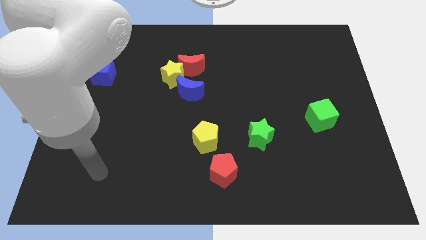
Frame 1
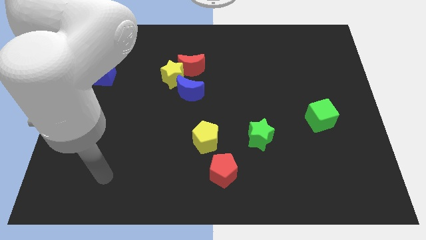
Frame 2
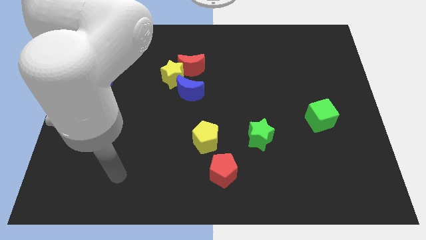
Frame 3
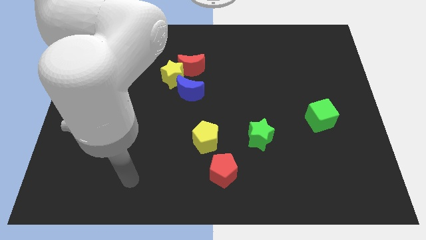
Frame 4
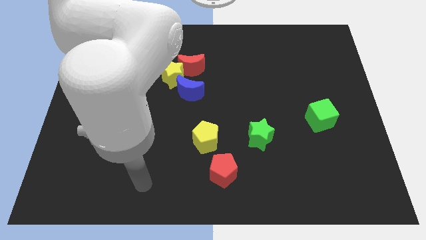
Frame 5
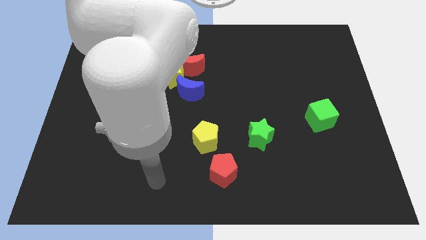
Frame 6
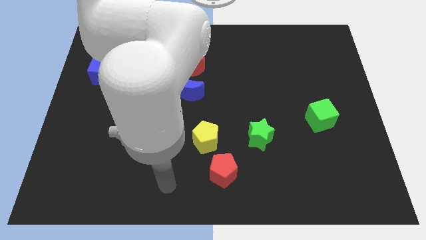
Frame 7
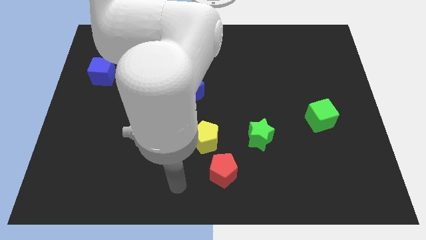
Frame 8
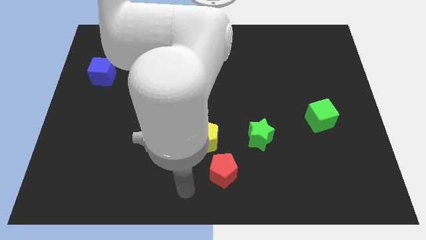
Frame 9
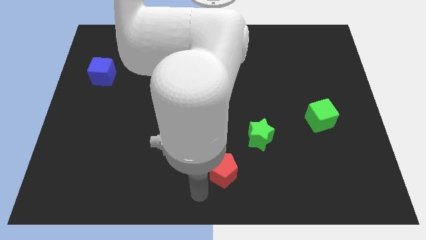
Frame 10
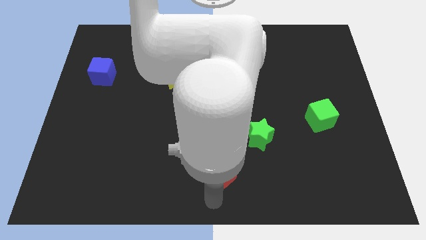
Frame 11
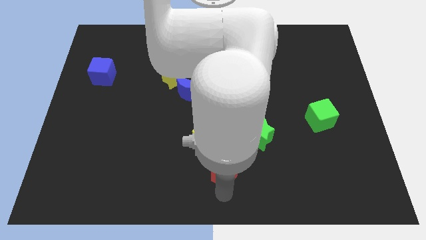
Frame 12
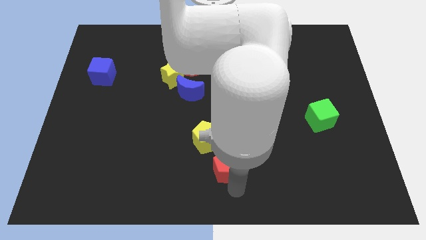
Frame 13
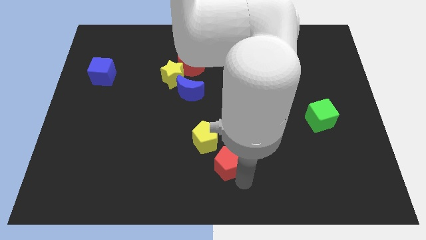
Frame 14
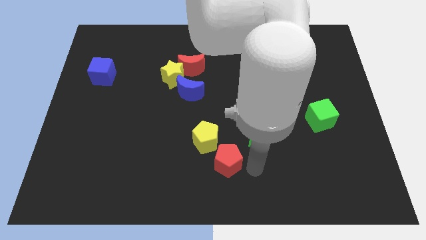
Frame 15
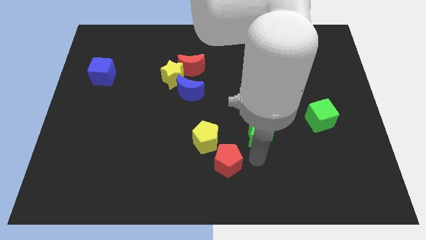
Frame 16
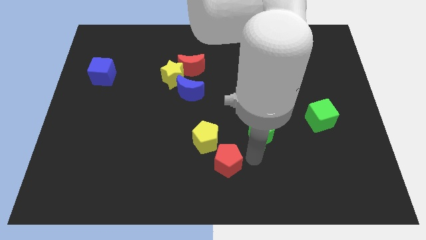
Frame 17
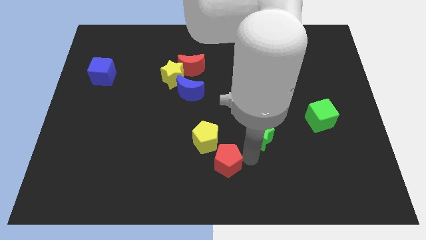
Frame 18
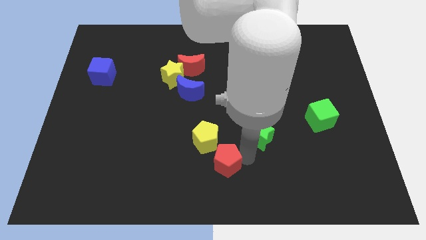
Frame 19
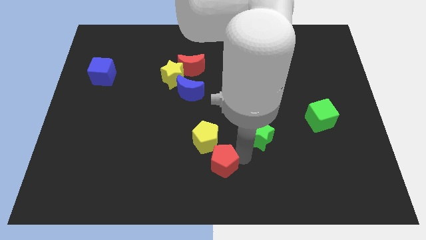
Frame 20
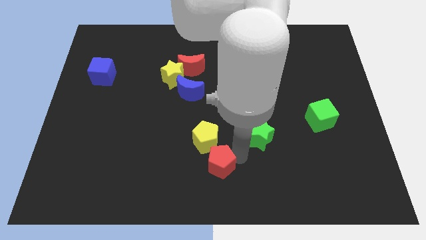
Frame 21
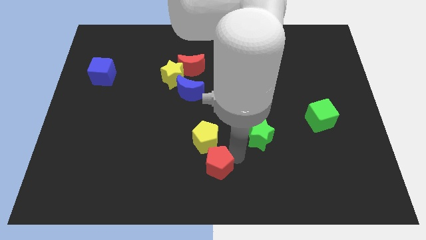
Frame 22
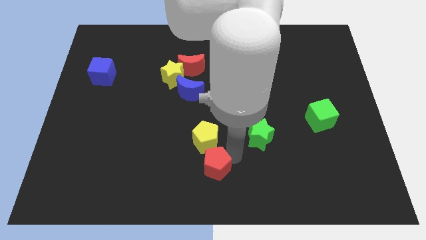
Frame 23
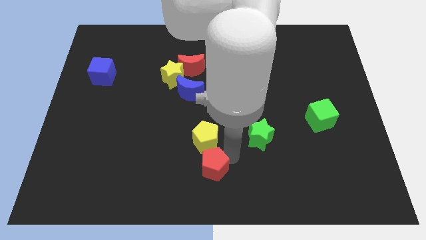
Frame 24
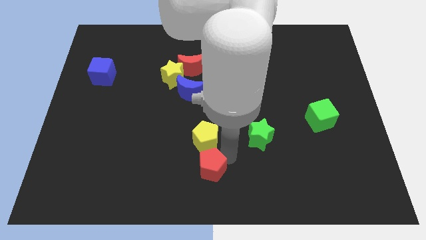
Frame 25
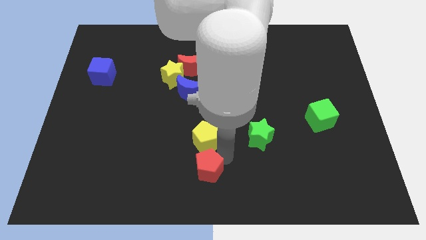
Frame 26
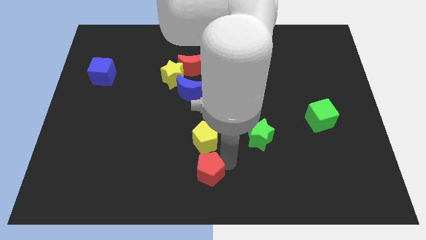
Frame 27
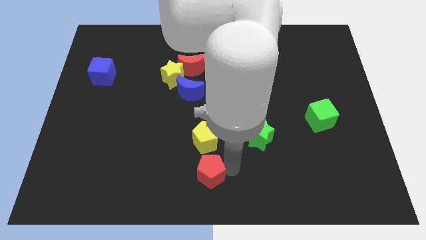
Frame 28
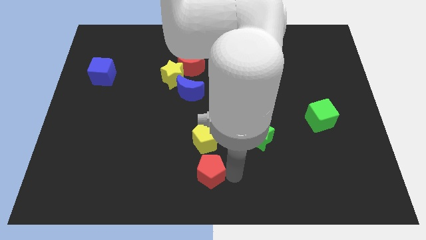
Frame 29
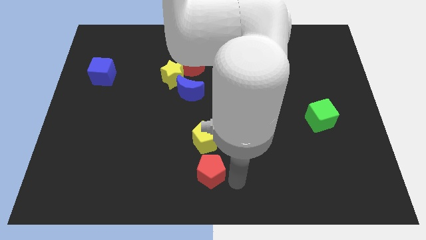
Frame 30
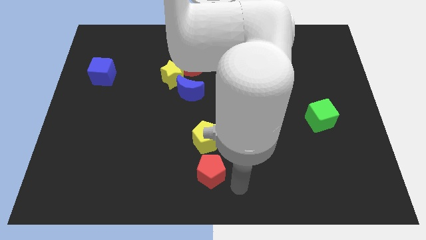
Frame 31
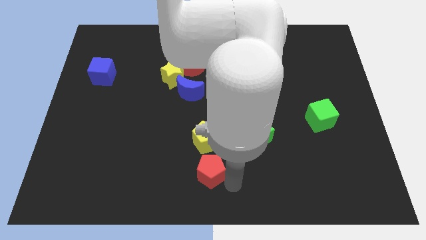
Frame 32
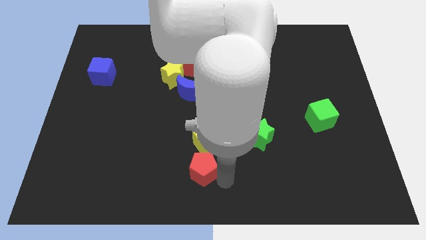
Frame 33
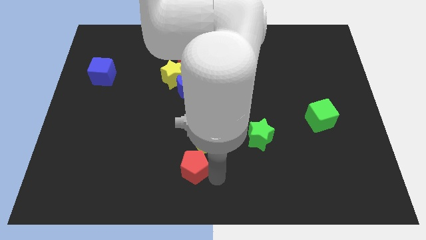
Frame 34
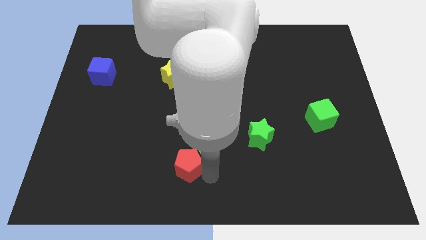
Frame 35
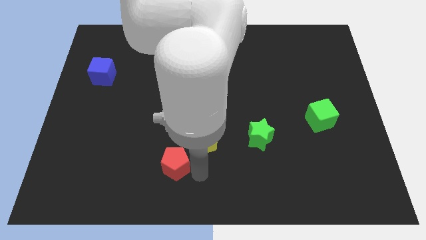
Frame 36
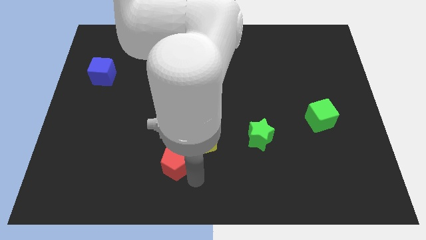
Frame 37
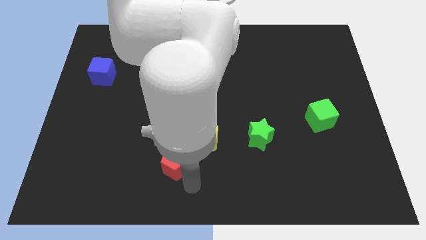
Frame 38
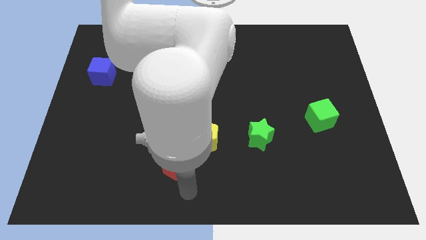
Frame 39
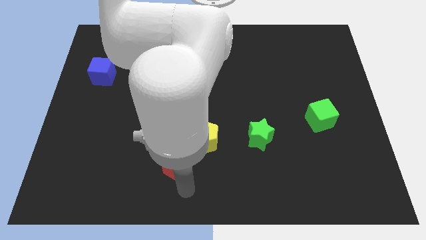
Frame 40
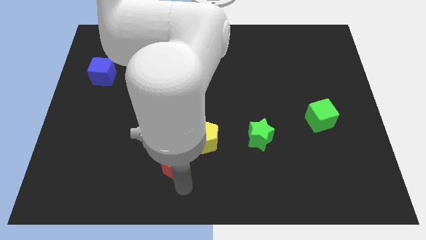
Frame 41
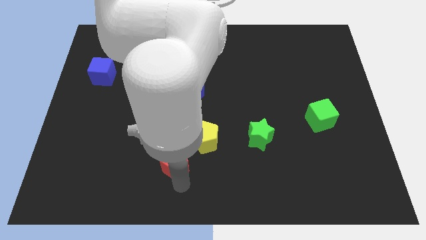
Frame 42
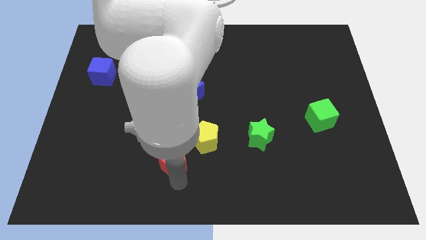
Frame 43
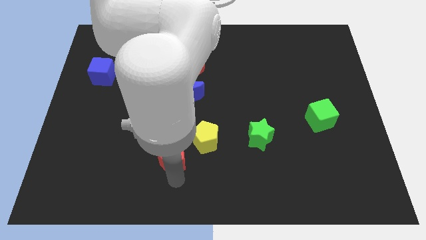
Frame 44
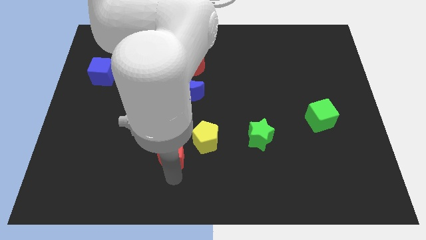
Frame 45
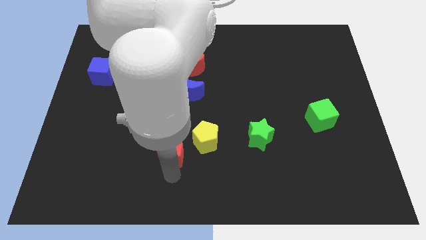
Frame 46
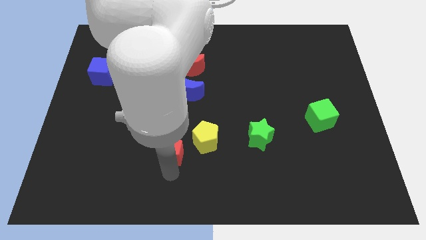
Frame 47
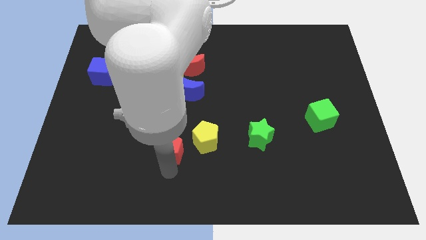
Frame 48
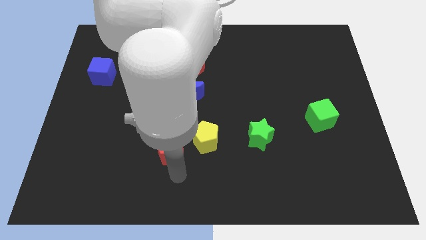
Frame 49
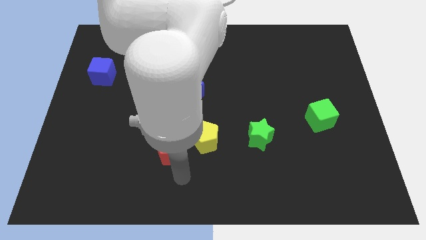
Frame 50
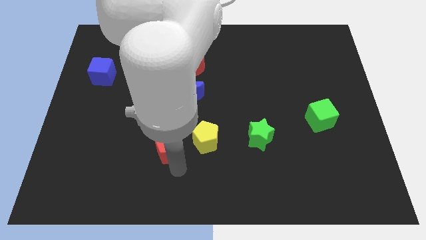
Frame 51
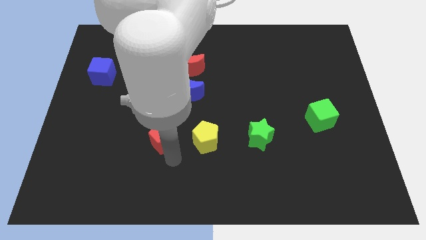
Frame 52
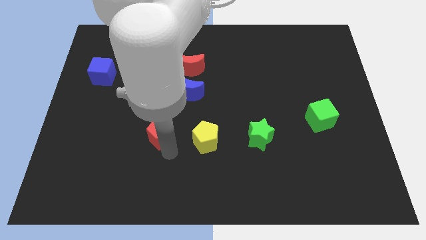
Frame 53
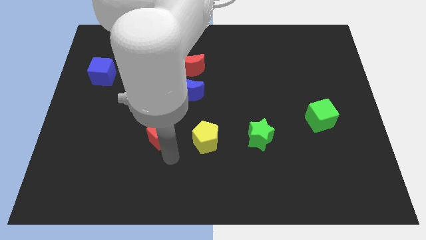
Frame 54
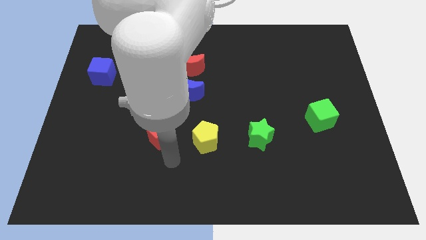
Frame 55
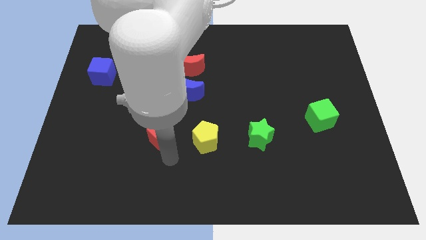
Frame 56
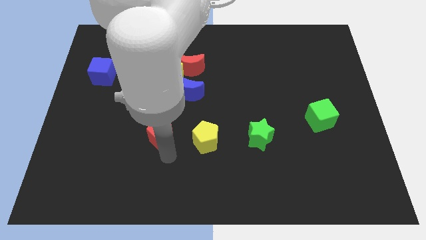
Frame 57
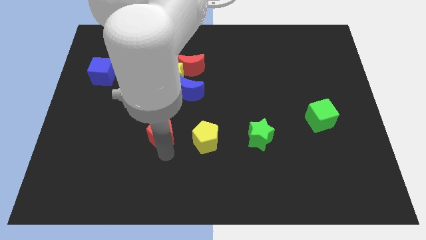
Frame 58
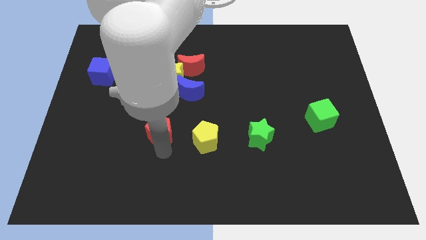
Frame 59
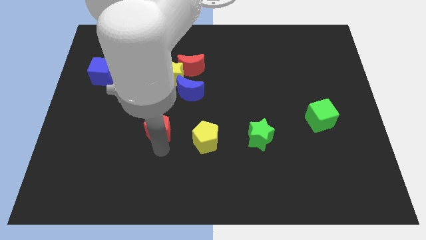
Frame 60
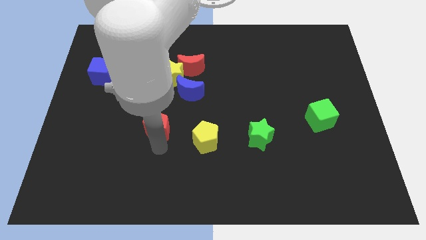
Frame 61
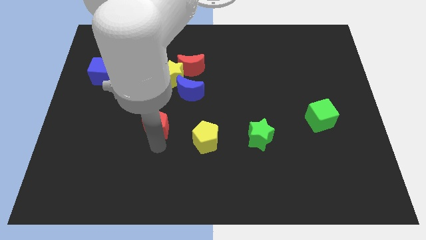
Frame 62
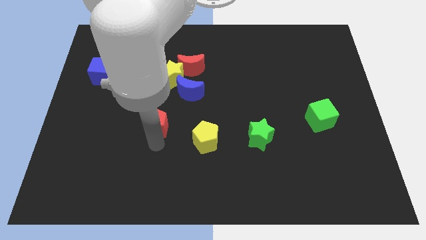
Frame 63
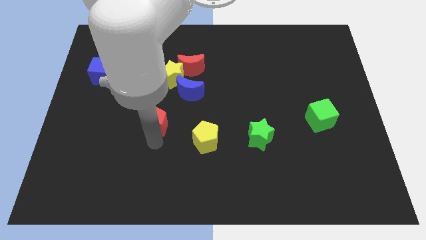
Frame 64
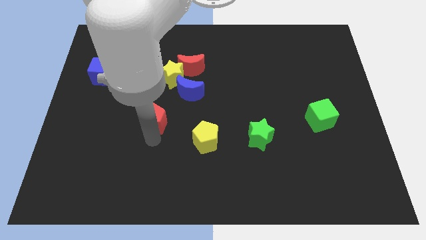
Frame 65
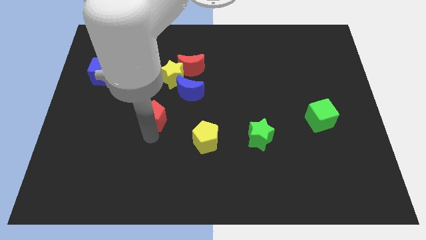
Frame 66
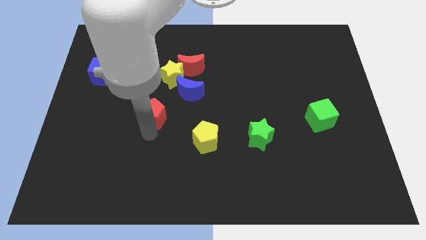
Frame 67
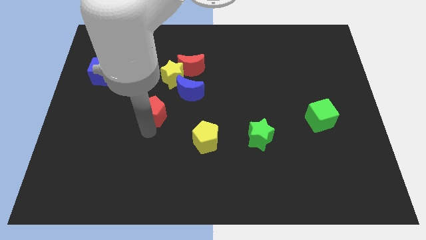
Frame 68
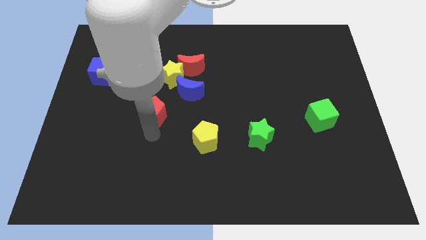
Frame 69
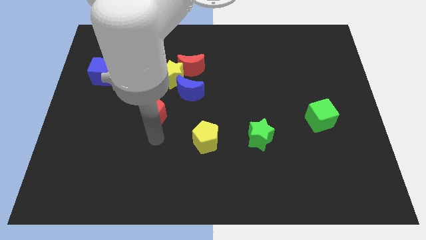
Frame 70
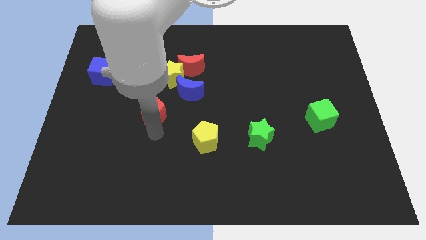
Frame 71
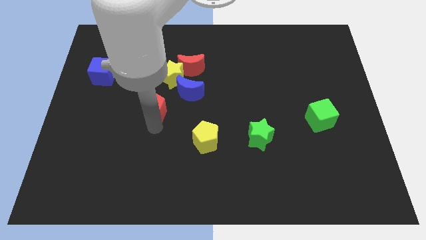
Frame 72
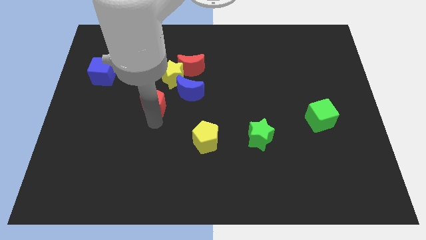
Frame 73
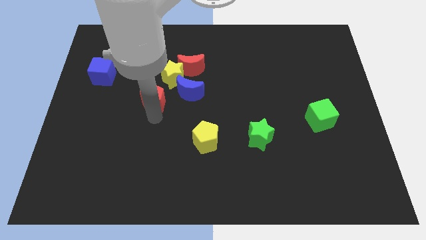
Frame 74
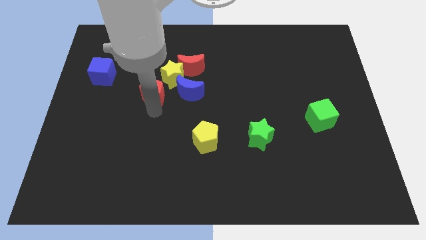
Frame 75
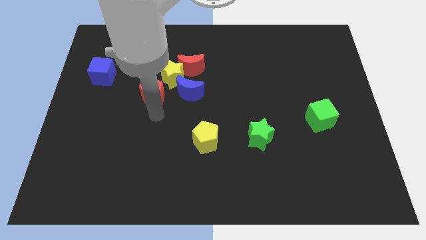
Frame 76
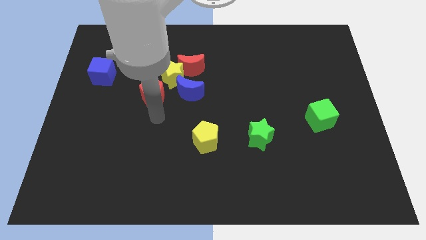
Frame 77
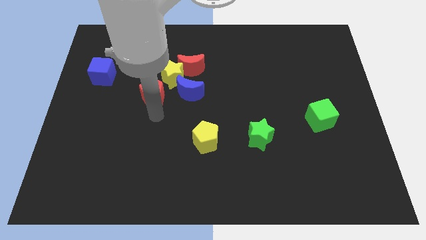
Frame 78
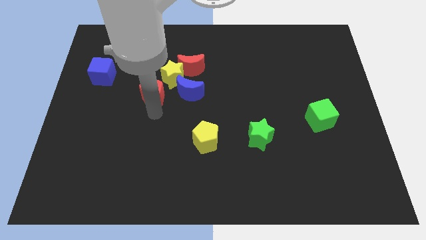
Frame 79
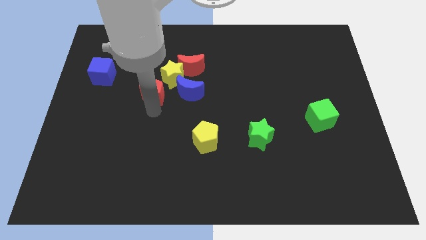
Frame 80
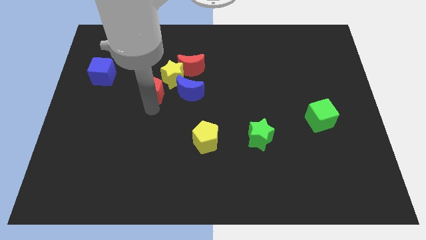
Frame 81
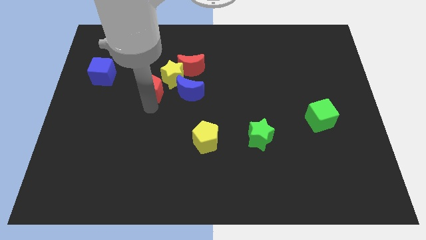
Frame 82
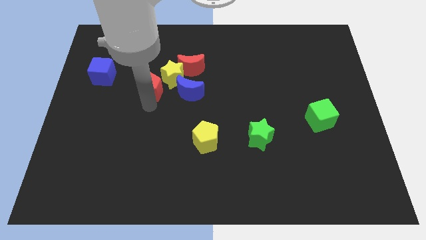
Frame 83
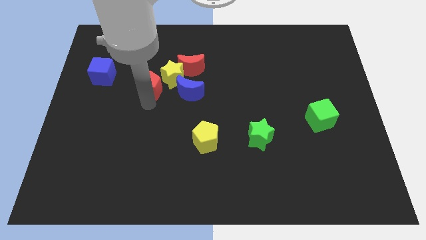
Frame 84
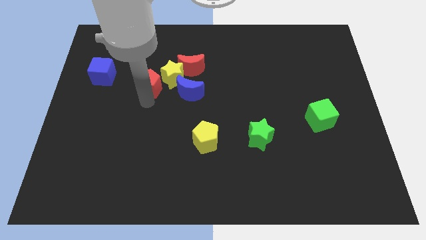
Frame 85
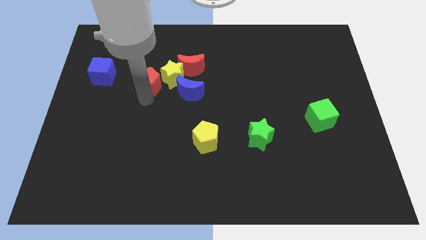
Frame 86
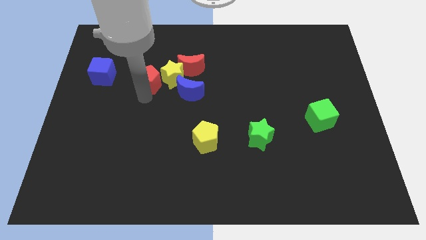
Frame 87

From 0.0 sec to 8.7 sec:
put the red pentagon left of the red moon
